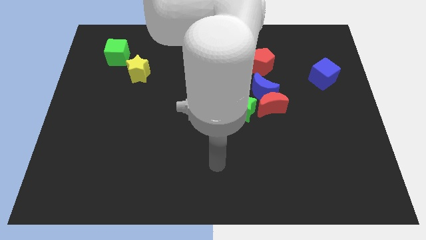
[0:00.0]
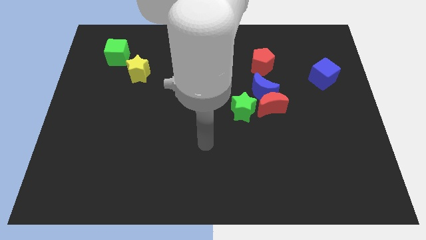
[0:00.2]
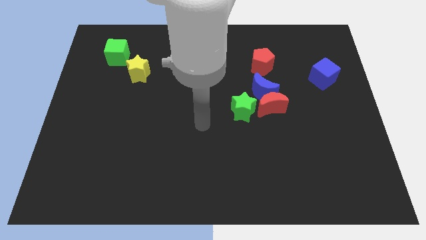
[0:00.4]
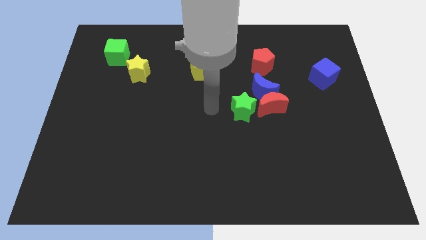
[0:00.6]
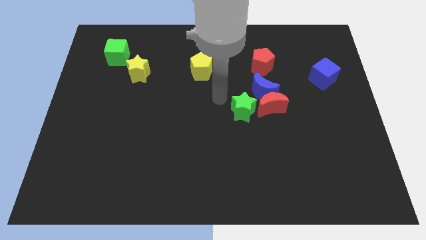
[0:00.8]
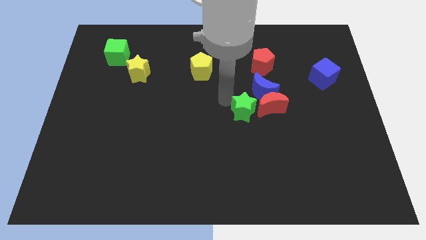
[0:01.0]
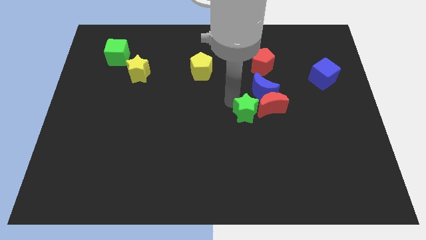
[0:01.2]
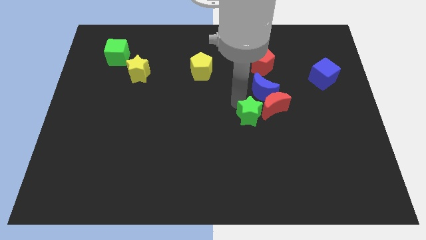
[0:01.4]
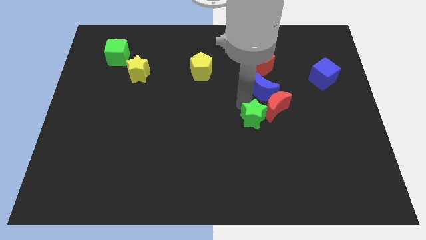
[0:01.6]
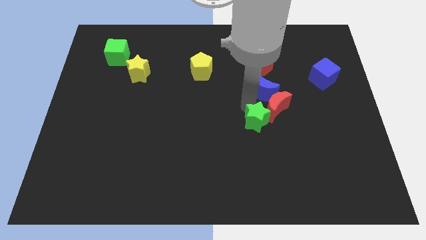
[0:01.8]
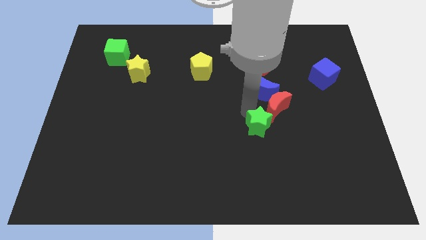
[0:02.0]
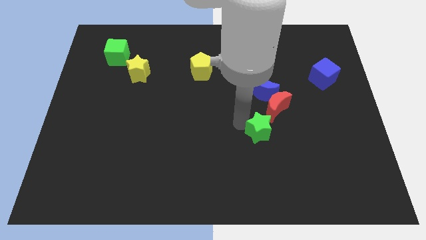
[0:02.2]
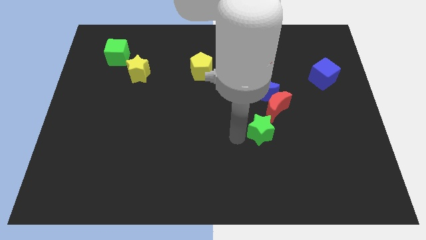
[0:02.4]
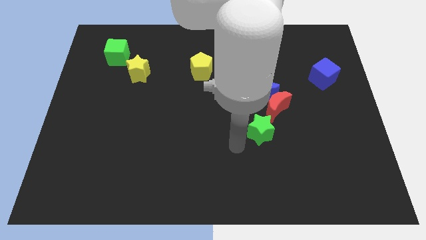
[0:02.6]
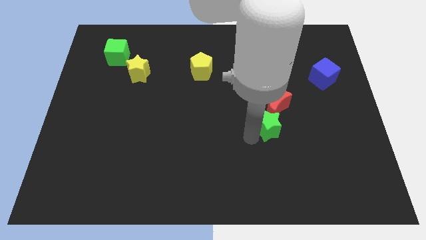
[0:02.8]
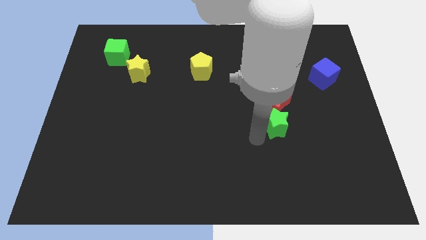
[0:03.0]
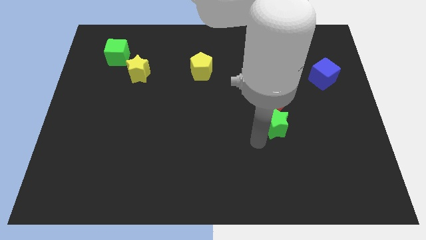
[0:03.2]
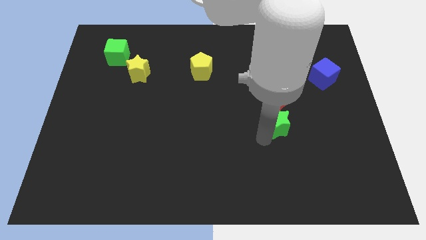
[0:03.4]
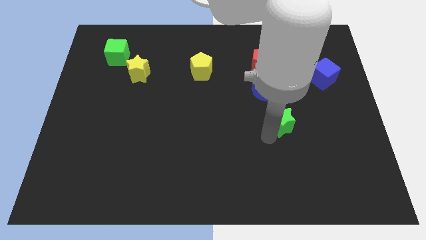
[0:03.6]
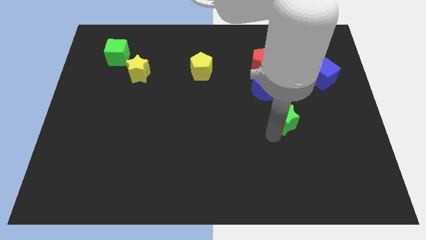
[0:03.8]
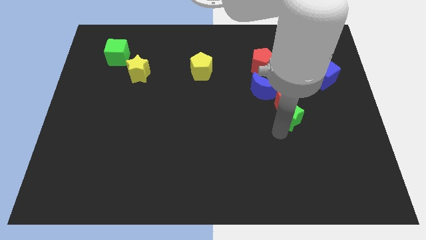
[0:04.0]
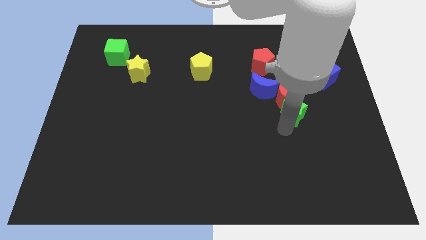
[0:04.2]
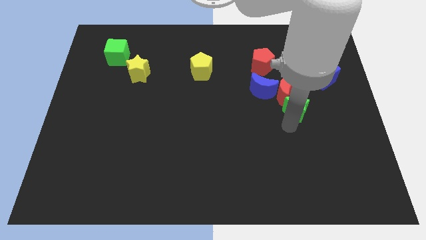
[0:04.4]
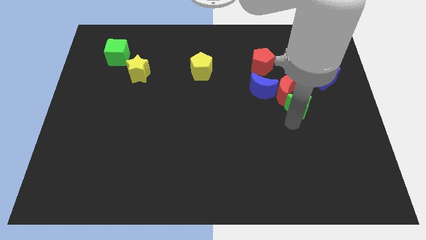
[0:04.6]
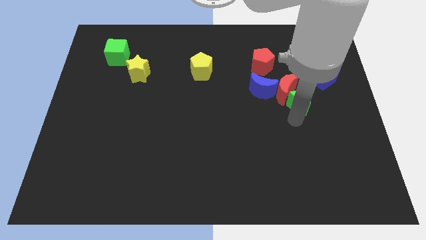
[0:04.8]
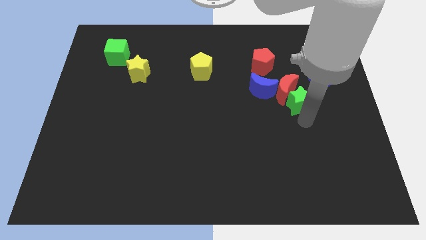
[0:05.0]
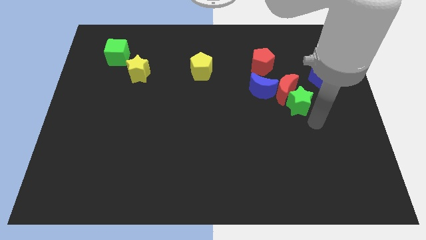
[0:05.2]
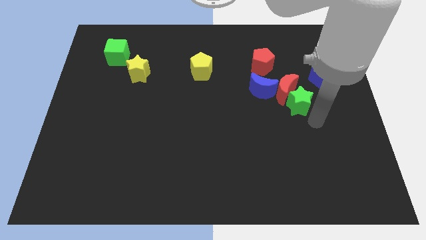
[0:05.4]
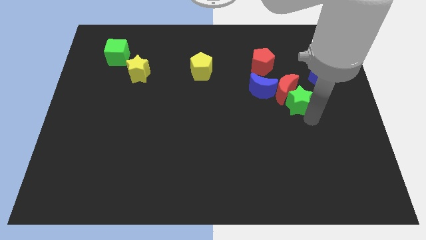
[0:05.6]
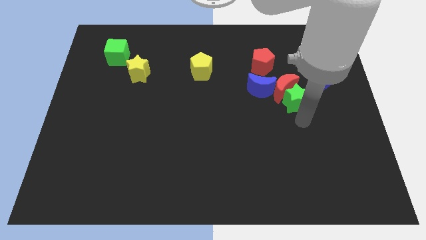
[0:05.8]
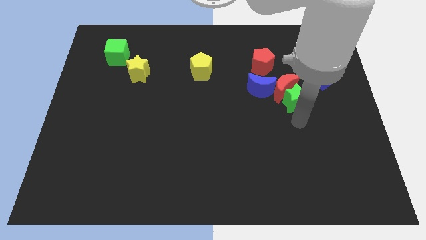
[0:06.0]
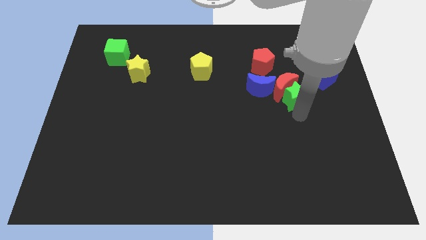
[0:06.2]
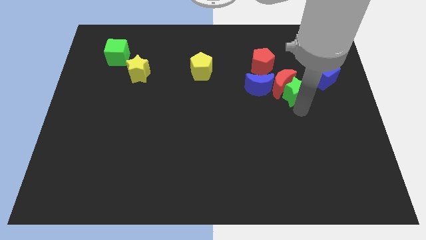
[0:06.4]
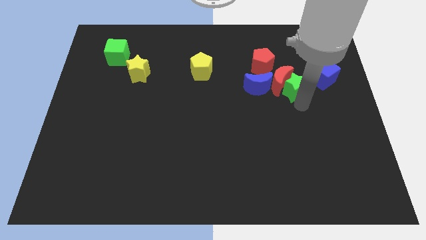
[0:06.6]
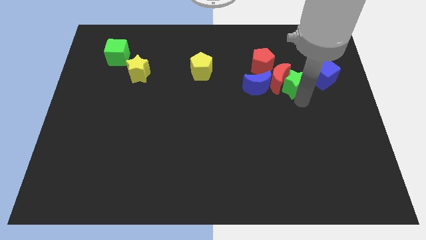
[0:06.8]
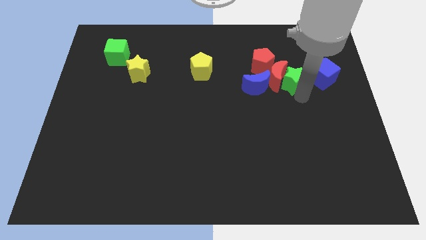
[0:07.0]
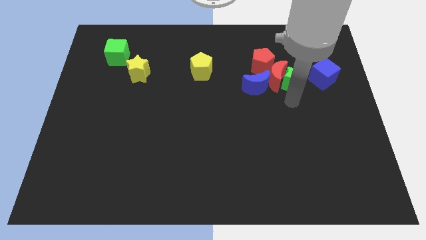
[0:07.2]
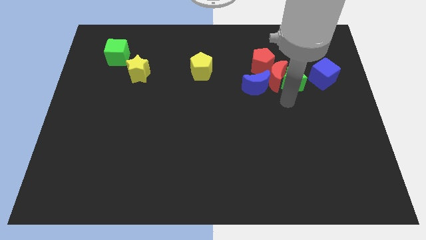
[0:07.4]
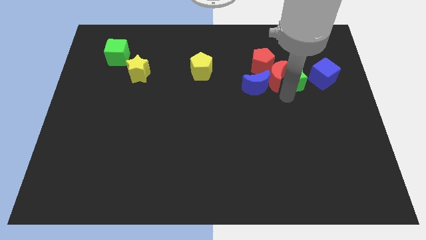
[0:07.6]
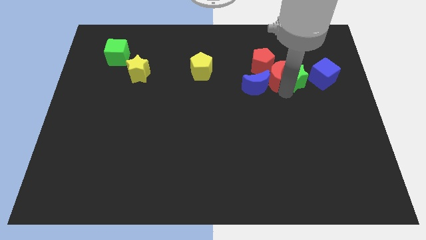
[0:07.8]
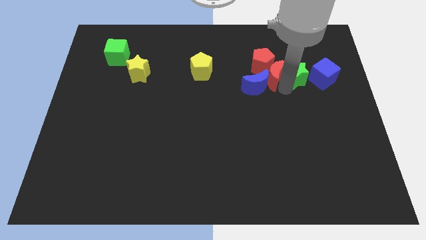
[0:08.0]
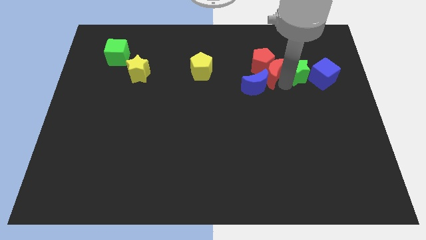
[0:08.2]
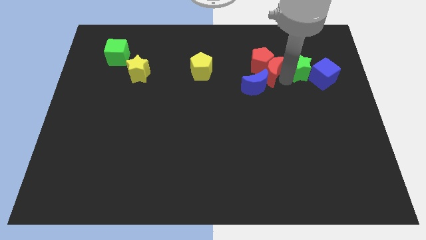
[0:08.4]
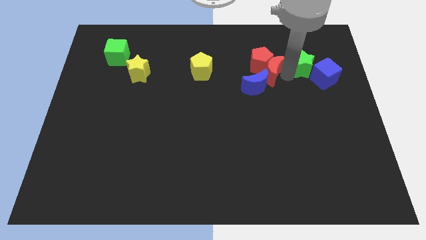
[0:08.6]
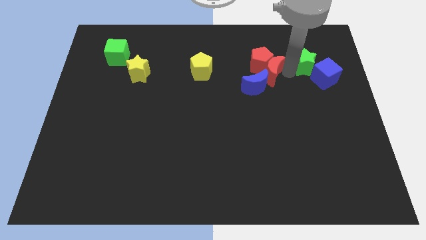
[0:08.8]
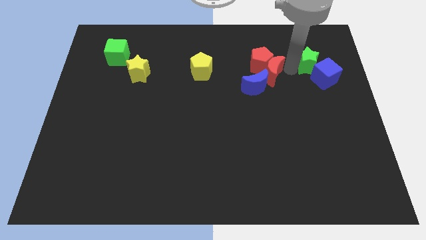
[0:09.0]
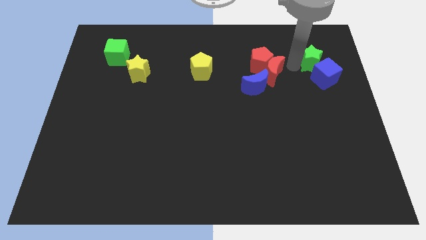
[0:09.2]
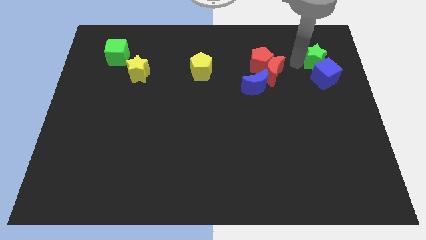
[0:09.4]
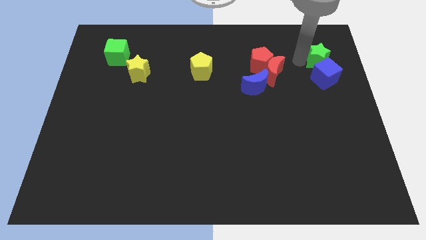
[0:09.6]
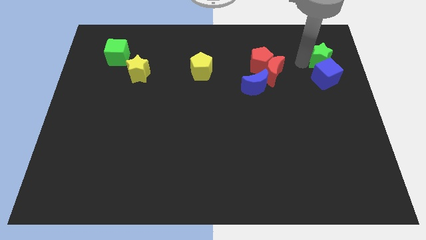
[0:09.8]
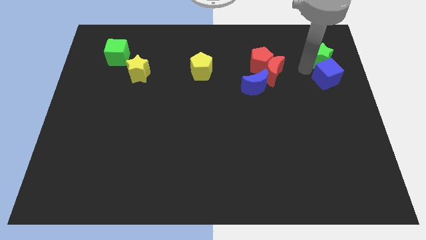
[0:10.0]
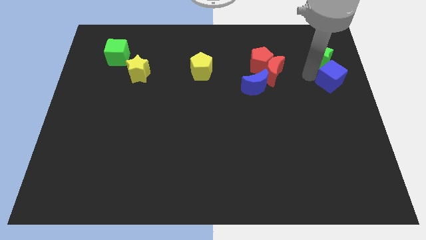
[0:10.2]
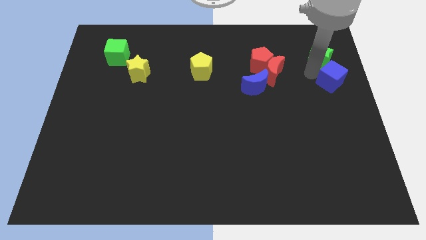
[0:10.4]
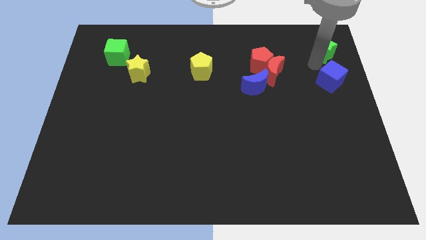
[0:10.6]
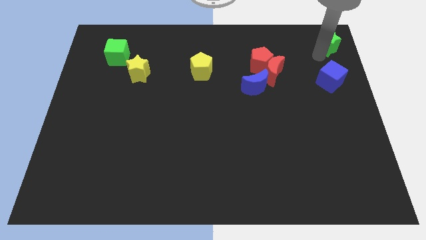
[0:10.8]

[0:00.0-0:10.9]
slide the green star to the upper right corner

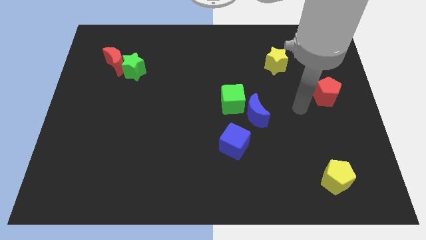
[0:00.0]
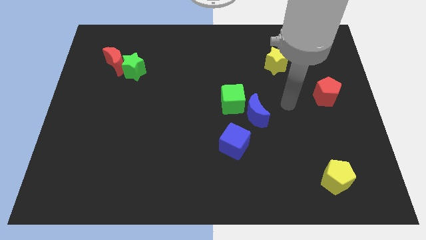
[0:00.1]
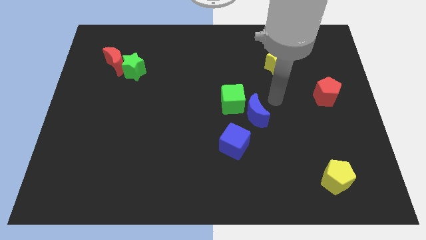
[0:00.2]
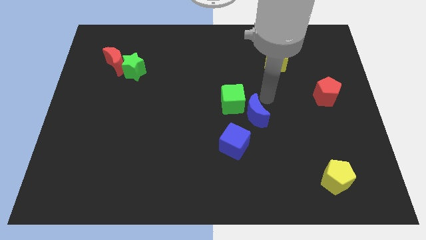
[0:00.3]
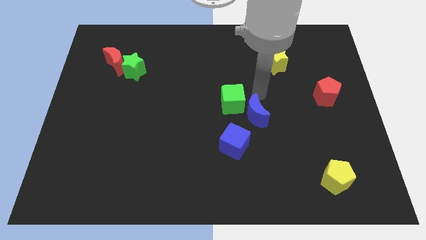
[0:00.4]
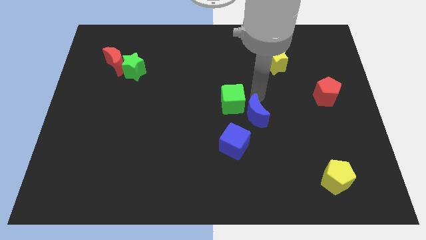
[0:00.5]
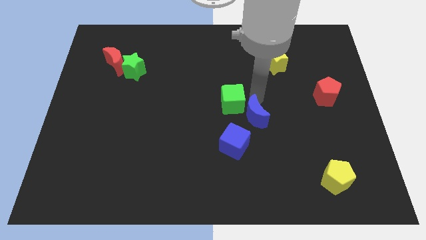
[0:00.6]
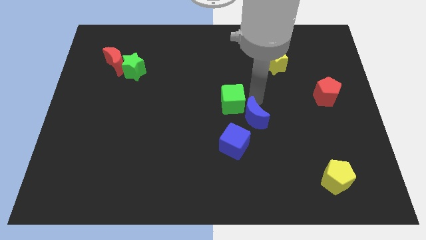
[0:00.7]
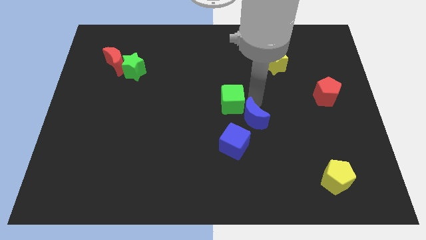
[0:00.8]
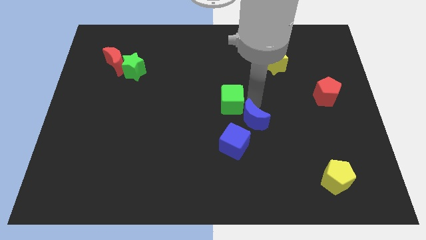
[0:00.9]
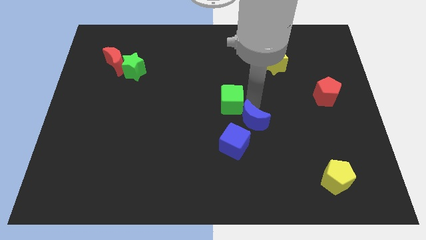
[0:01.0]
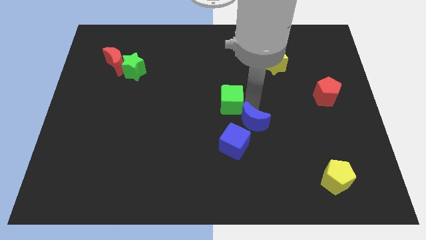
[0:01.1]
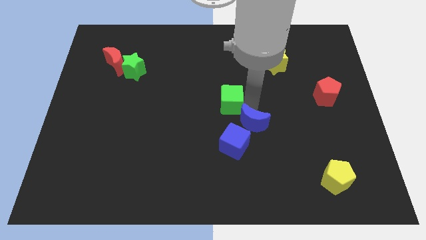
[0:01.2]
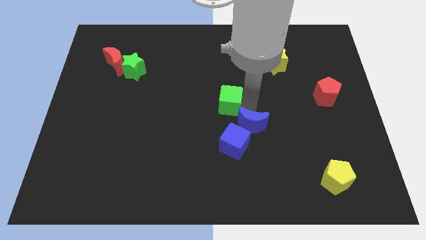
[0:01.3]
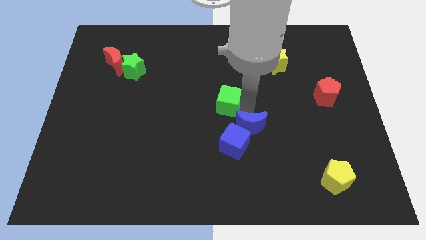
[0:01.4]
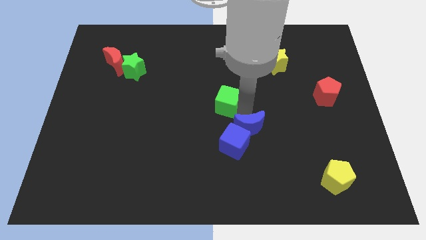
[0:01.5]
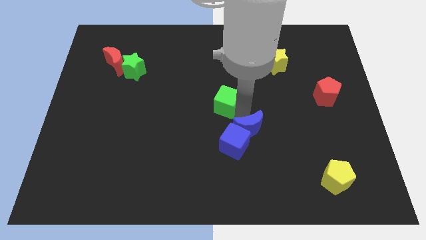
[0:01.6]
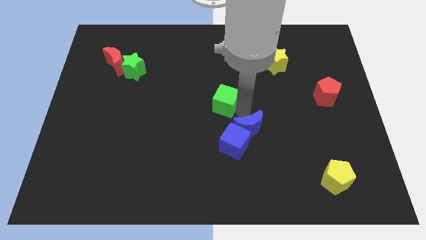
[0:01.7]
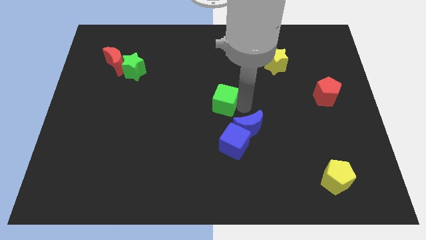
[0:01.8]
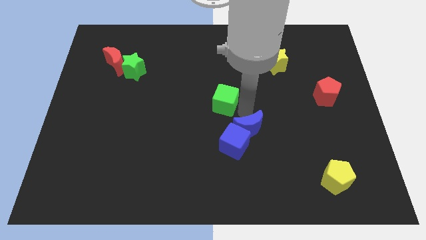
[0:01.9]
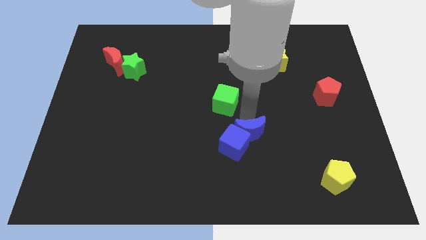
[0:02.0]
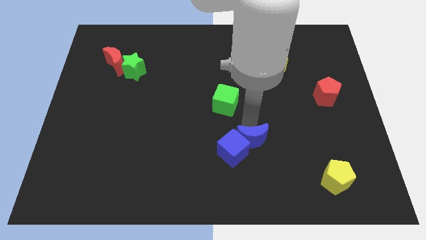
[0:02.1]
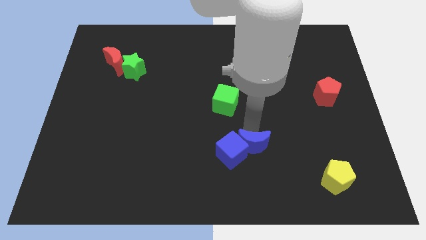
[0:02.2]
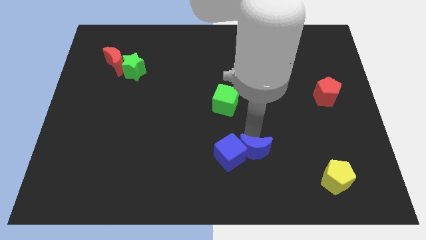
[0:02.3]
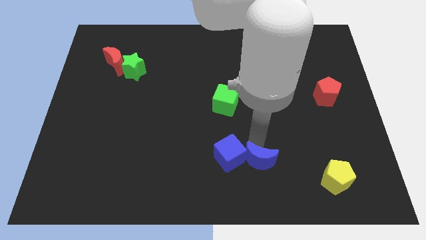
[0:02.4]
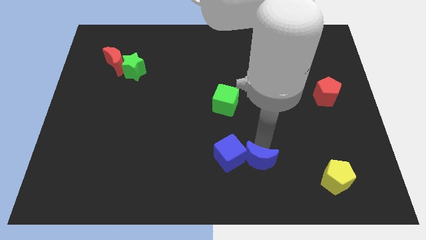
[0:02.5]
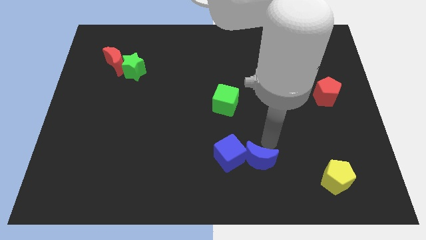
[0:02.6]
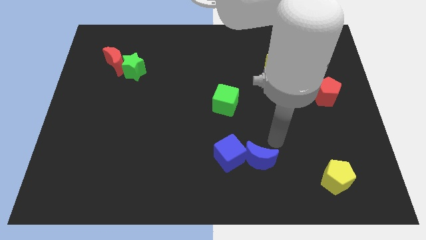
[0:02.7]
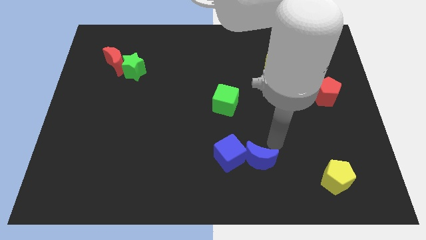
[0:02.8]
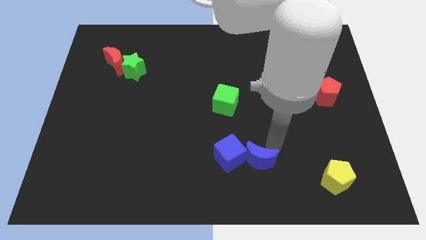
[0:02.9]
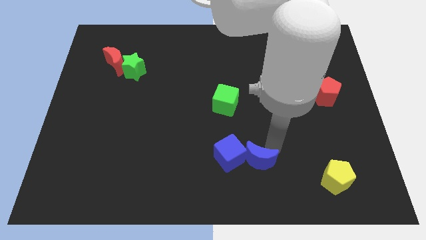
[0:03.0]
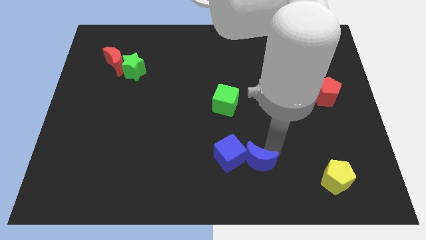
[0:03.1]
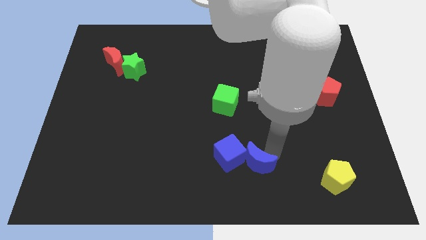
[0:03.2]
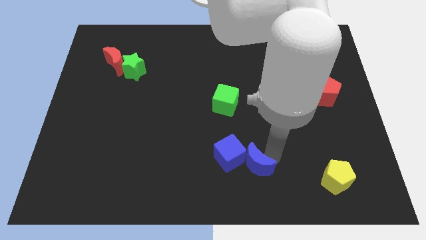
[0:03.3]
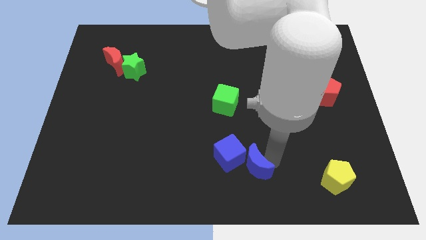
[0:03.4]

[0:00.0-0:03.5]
slide the blue moon to the bottom side
